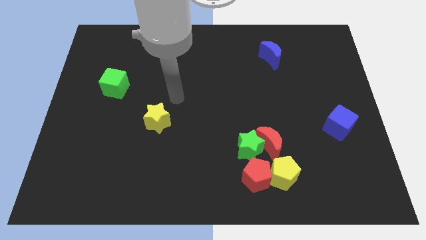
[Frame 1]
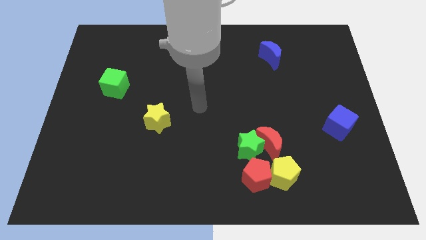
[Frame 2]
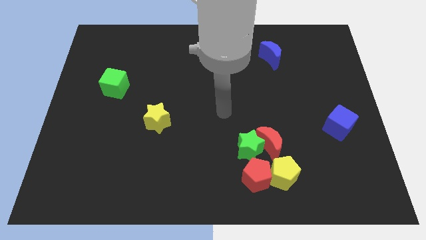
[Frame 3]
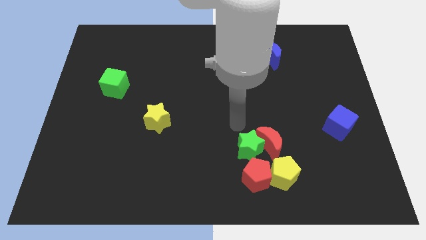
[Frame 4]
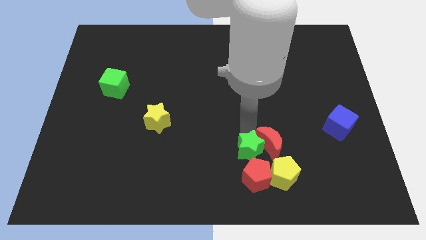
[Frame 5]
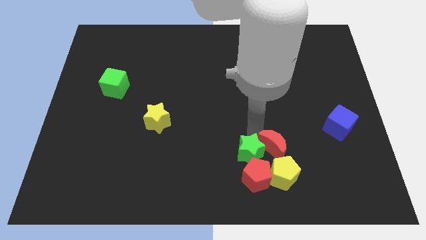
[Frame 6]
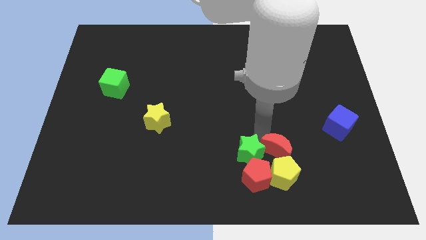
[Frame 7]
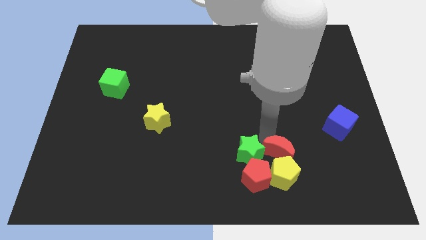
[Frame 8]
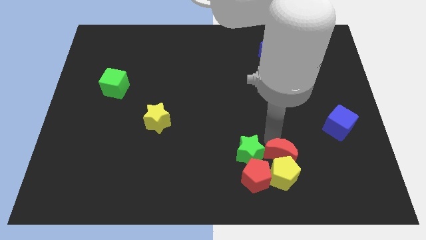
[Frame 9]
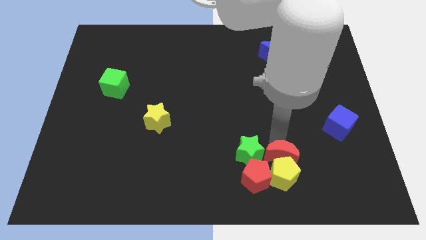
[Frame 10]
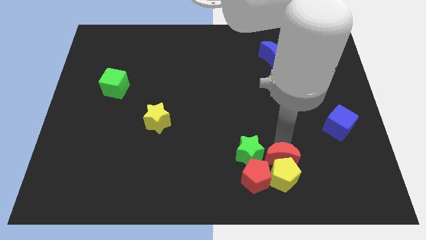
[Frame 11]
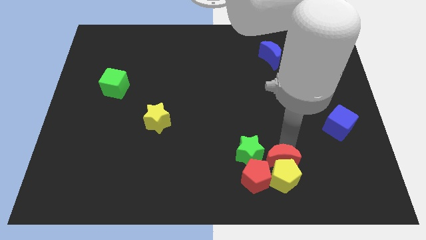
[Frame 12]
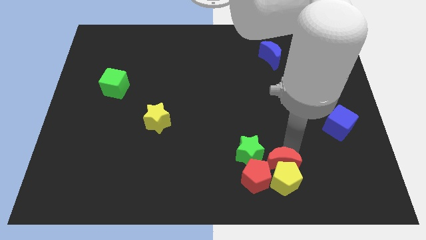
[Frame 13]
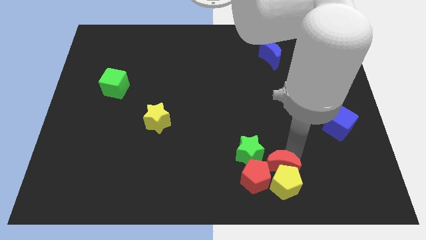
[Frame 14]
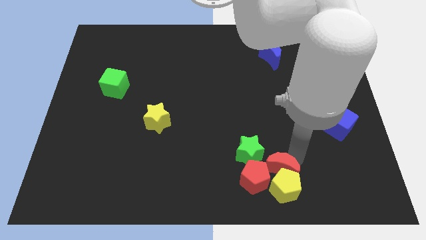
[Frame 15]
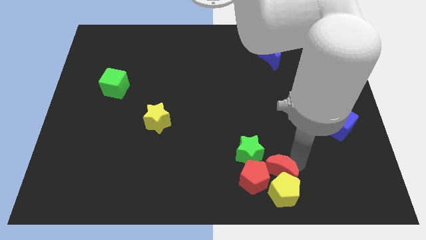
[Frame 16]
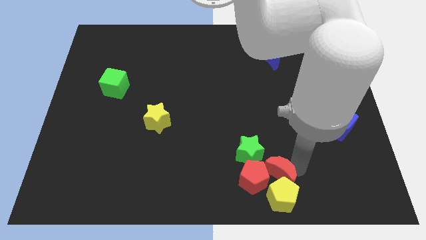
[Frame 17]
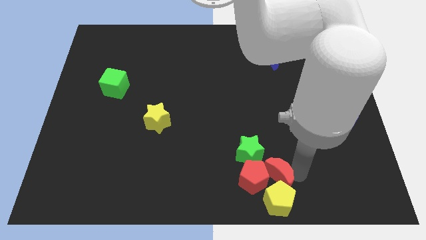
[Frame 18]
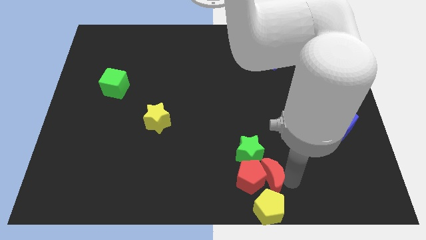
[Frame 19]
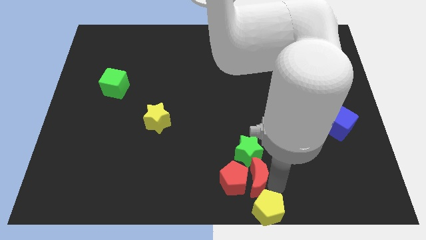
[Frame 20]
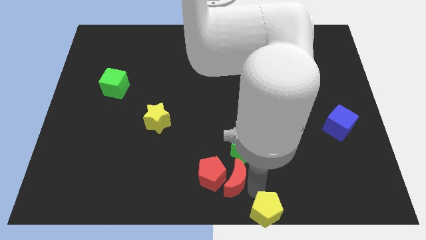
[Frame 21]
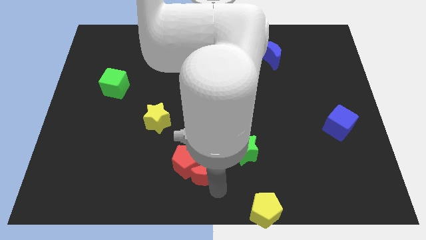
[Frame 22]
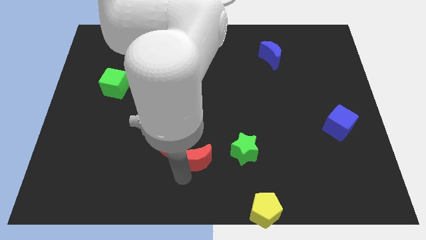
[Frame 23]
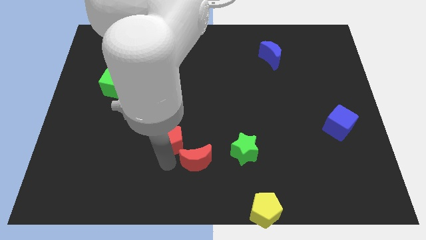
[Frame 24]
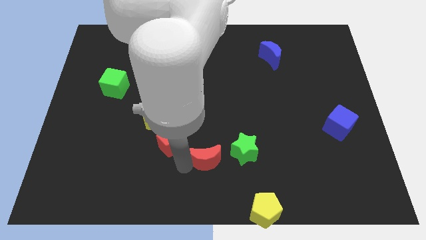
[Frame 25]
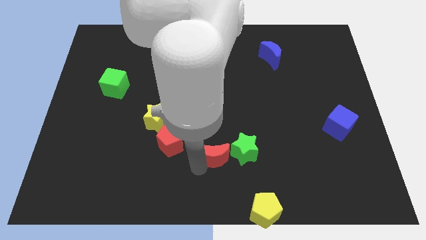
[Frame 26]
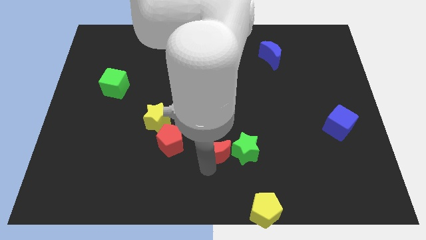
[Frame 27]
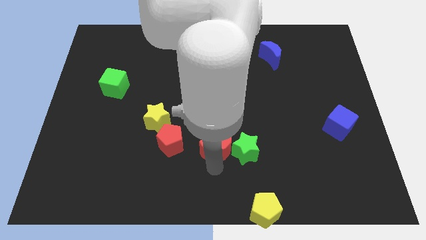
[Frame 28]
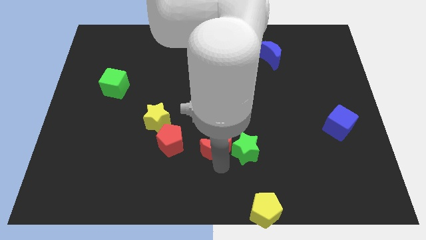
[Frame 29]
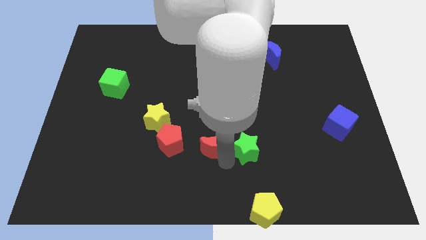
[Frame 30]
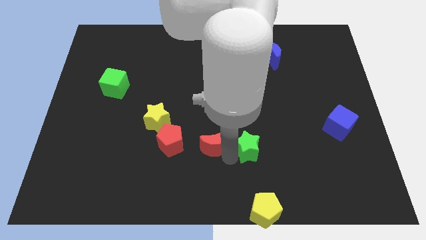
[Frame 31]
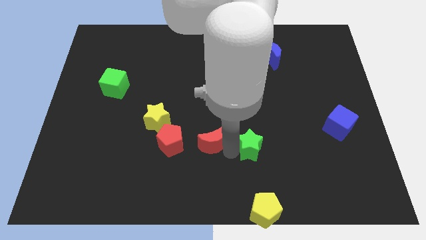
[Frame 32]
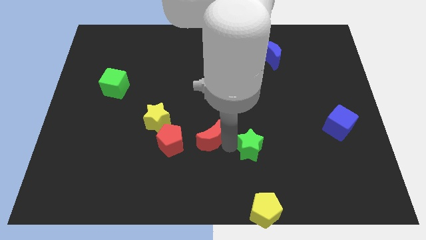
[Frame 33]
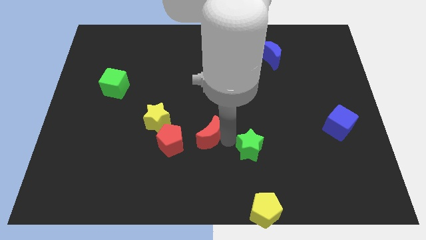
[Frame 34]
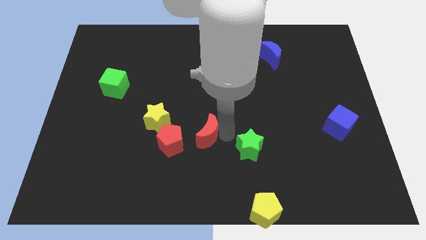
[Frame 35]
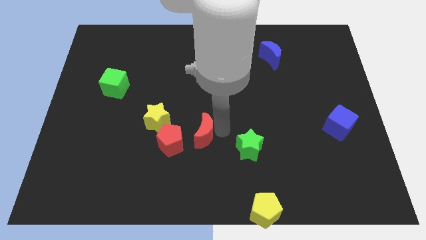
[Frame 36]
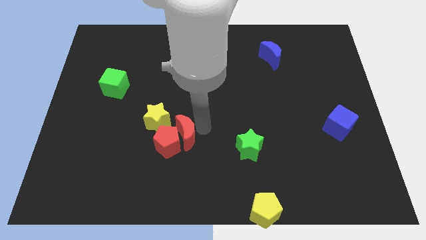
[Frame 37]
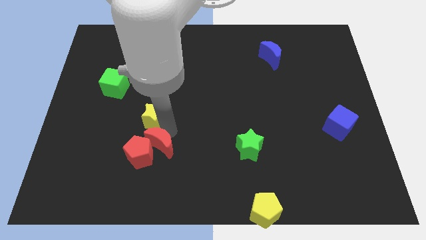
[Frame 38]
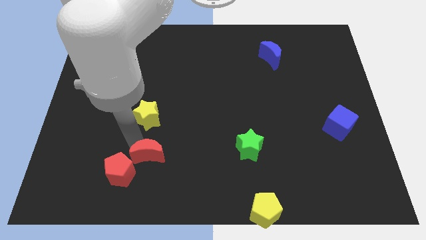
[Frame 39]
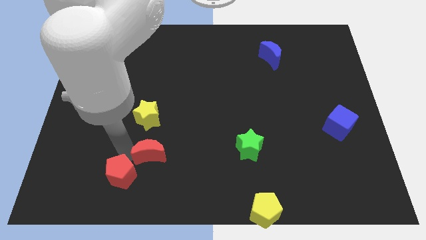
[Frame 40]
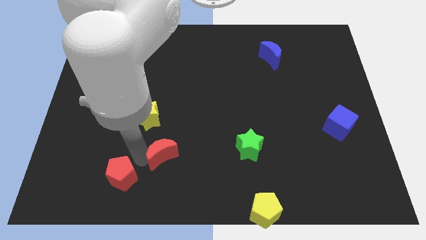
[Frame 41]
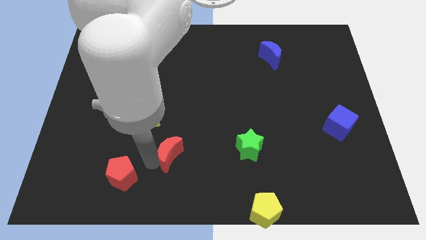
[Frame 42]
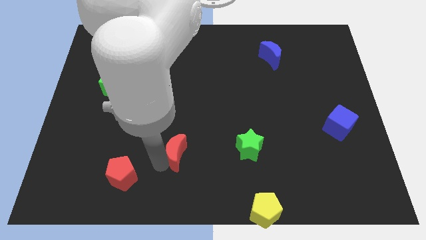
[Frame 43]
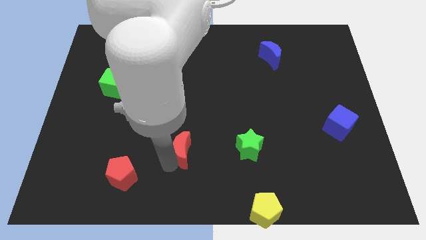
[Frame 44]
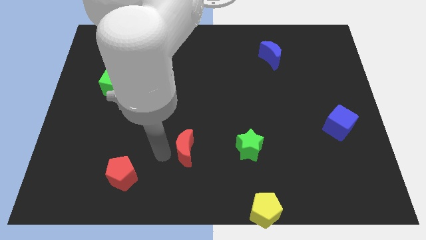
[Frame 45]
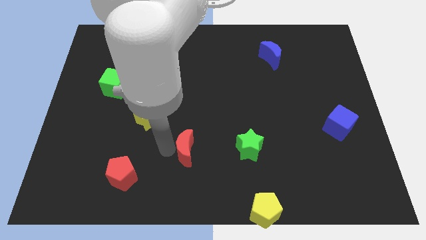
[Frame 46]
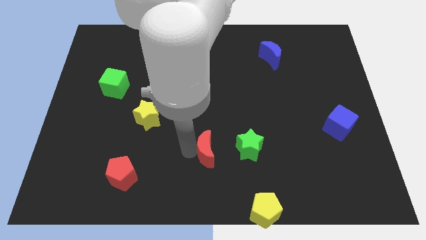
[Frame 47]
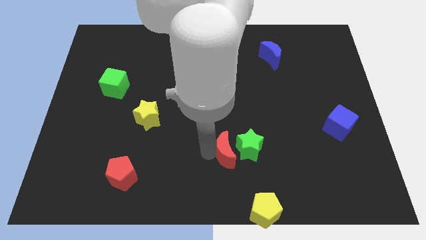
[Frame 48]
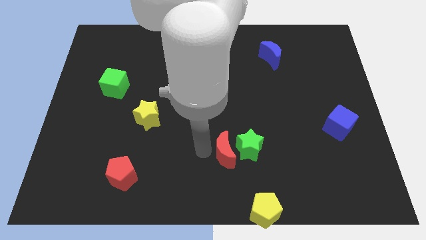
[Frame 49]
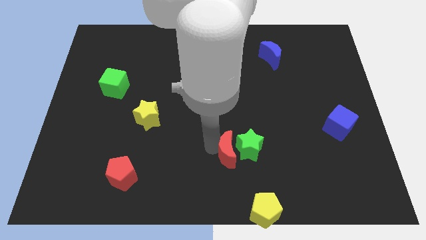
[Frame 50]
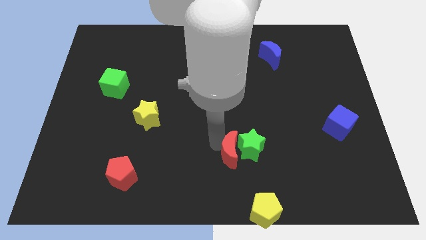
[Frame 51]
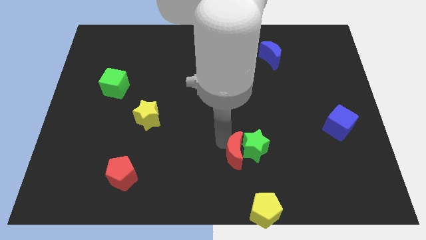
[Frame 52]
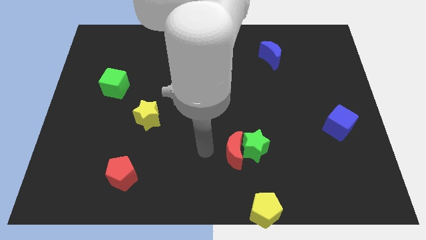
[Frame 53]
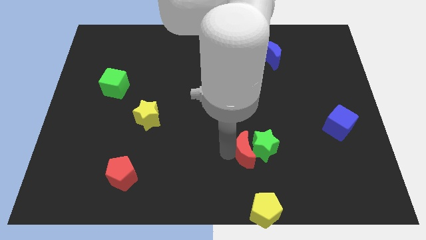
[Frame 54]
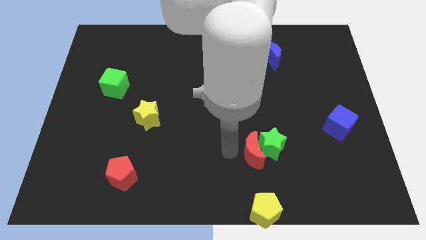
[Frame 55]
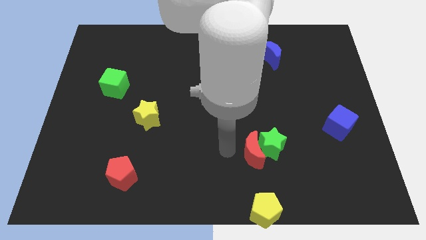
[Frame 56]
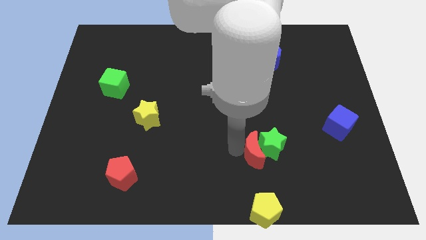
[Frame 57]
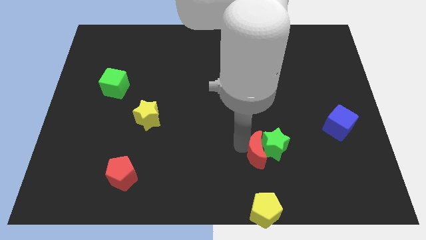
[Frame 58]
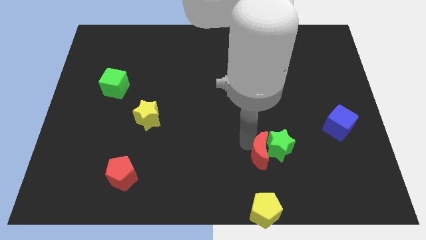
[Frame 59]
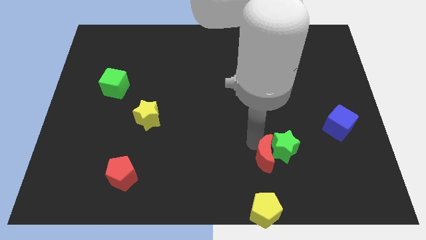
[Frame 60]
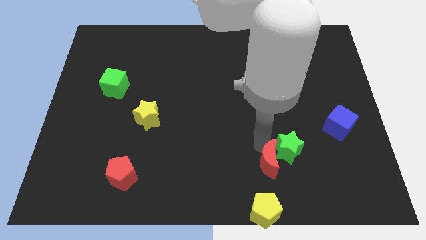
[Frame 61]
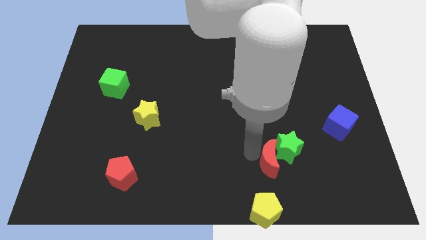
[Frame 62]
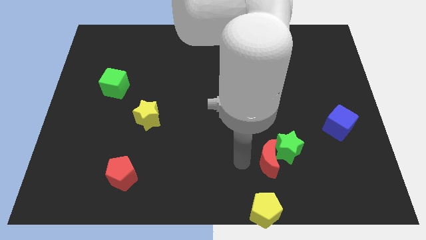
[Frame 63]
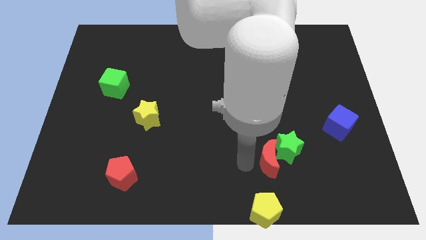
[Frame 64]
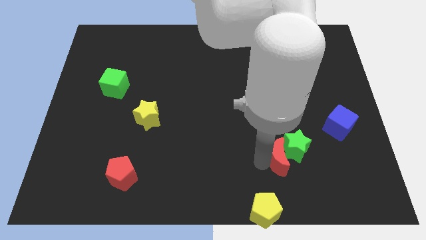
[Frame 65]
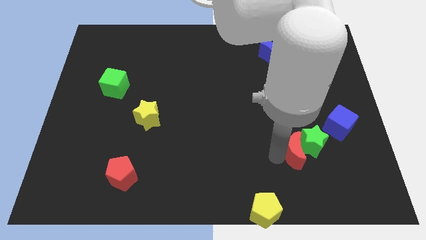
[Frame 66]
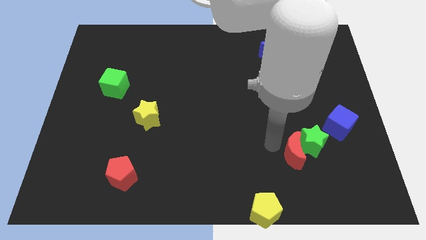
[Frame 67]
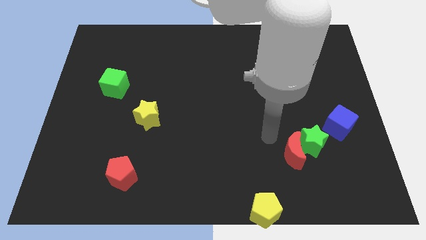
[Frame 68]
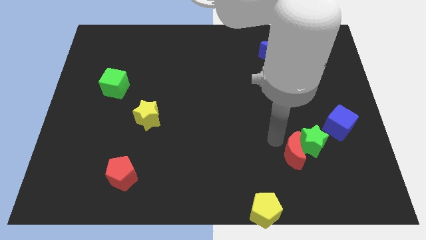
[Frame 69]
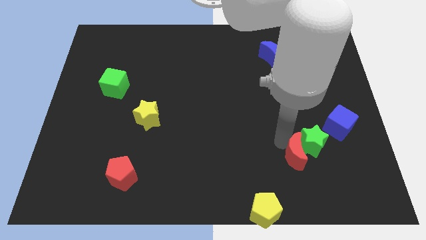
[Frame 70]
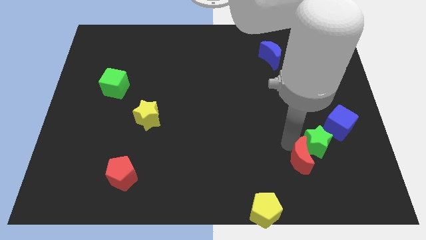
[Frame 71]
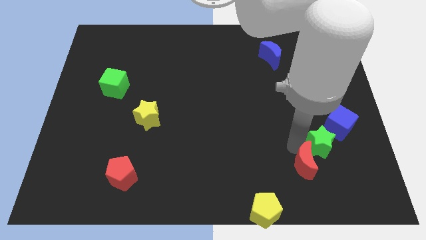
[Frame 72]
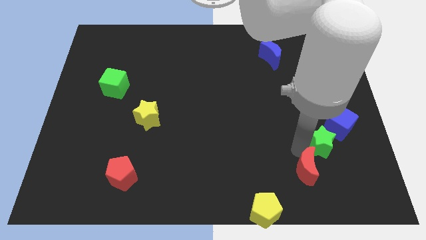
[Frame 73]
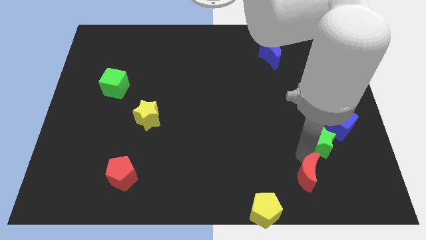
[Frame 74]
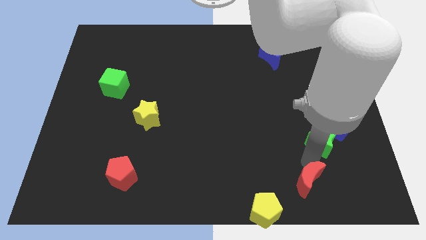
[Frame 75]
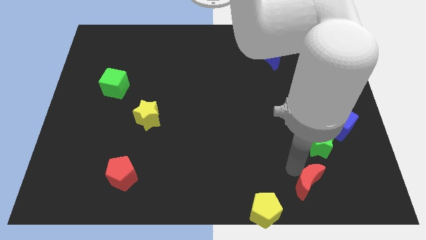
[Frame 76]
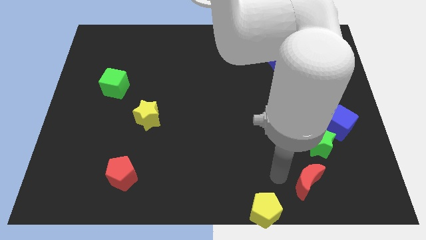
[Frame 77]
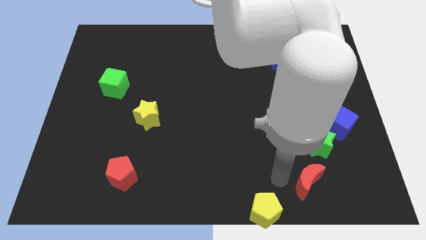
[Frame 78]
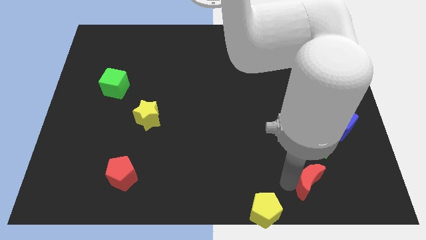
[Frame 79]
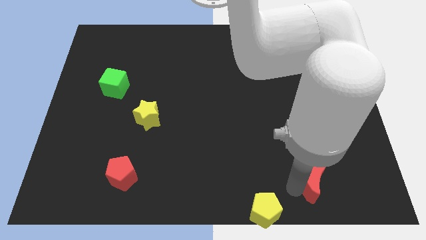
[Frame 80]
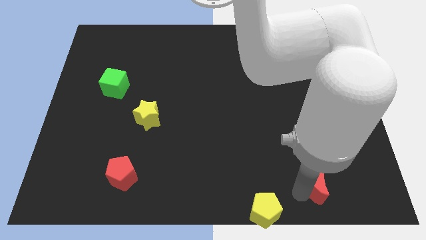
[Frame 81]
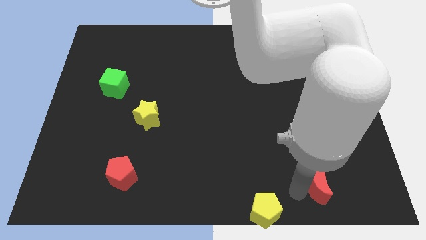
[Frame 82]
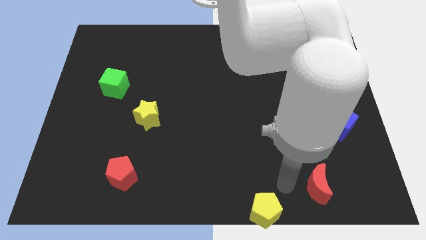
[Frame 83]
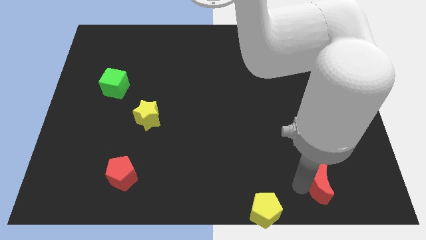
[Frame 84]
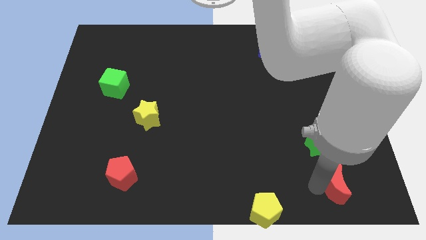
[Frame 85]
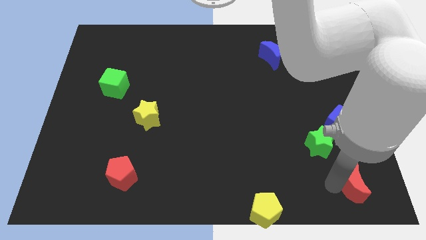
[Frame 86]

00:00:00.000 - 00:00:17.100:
put the red moon to the bottom right of the board
